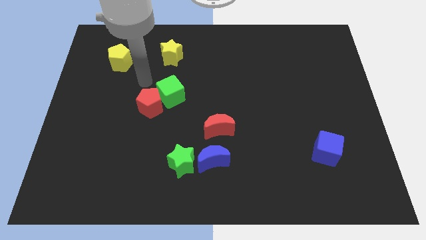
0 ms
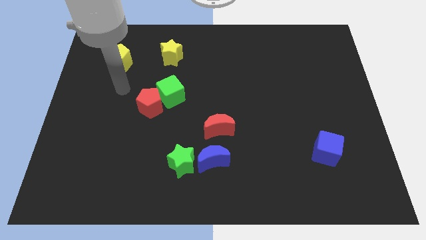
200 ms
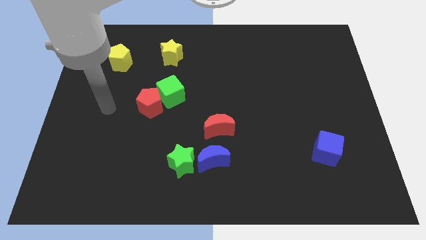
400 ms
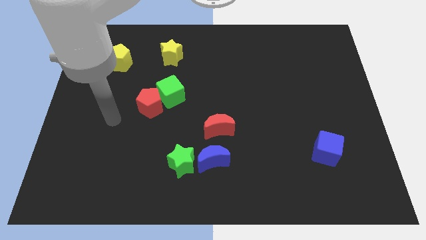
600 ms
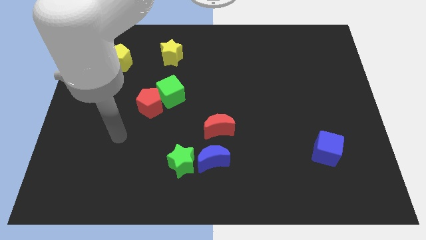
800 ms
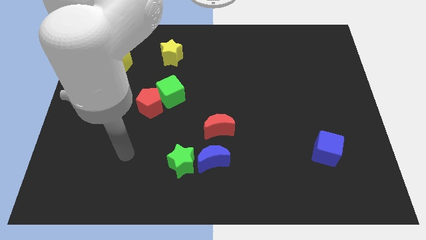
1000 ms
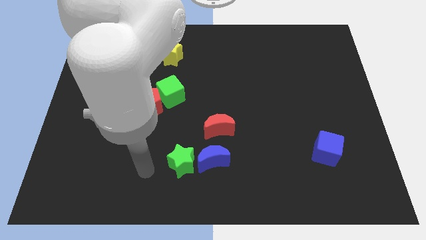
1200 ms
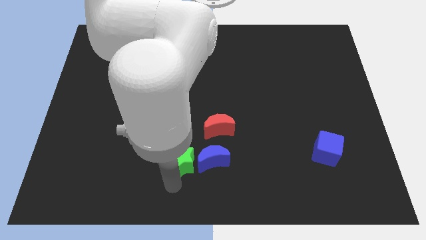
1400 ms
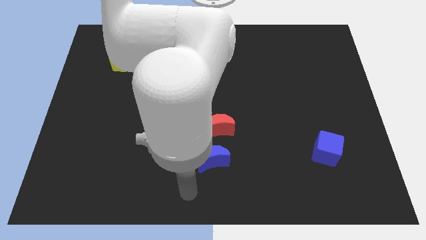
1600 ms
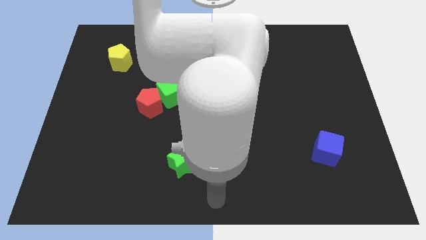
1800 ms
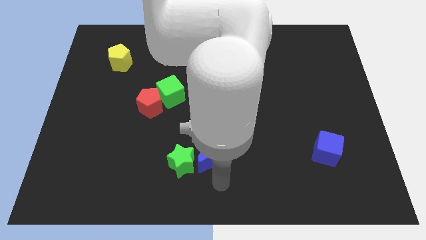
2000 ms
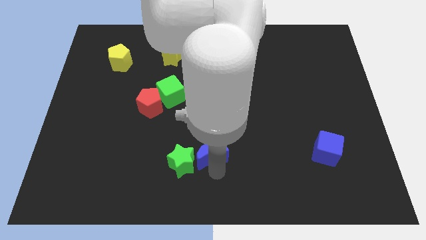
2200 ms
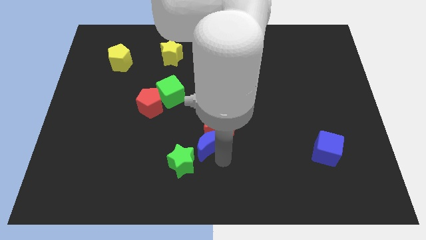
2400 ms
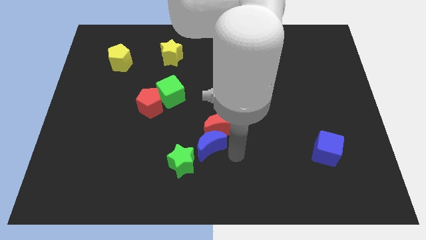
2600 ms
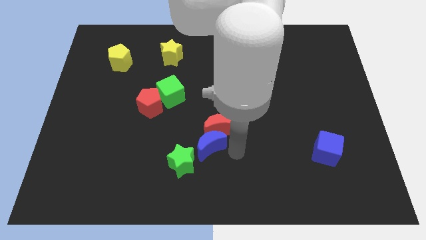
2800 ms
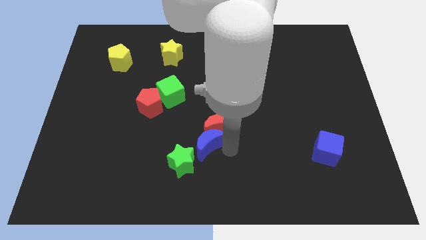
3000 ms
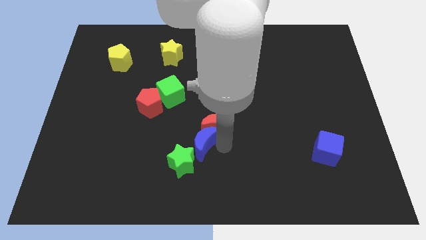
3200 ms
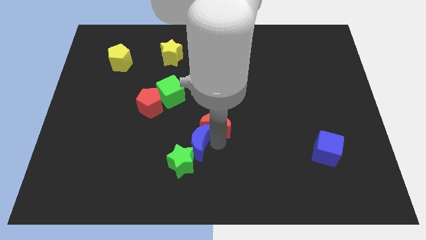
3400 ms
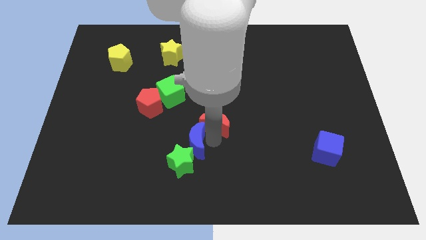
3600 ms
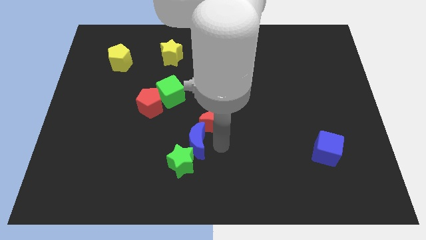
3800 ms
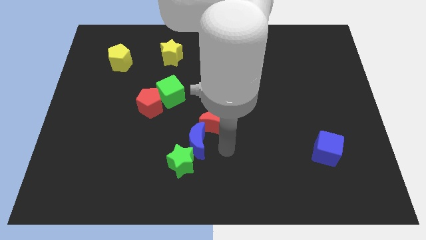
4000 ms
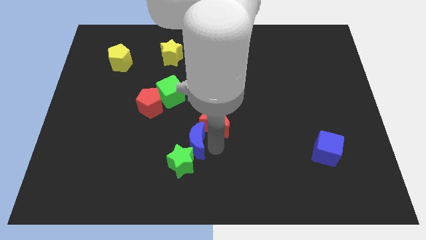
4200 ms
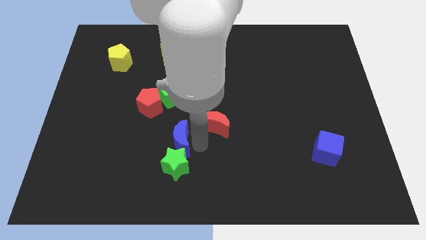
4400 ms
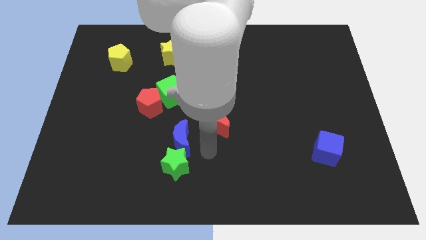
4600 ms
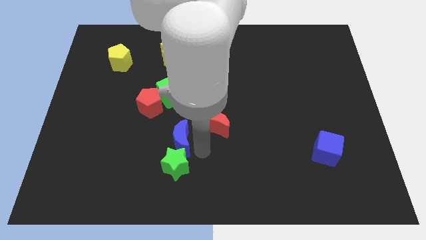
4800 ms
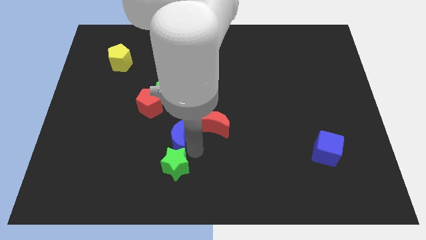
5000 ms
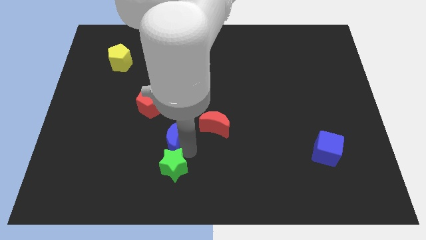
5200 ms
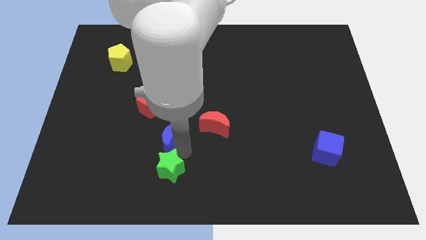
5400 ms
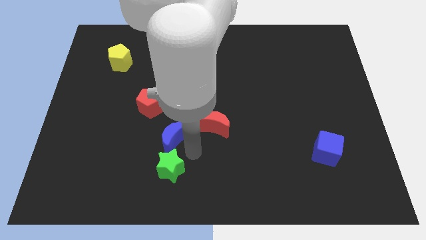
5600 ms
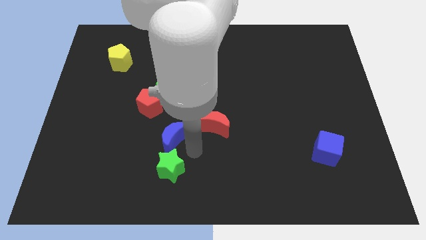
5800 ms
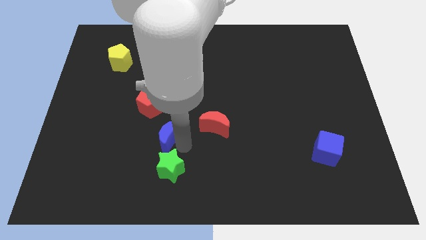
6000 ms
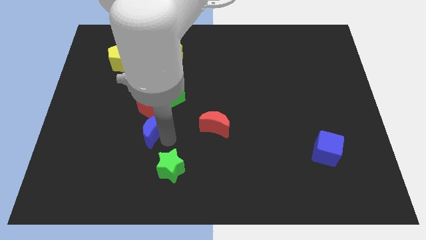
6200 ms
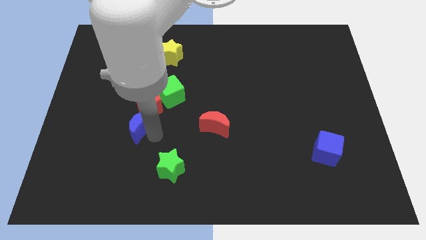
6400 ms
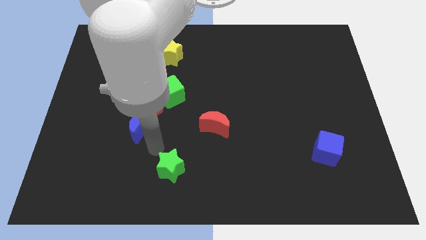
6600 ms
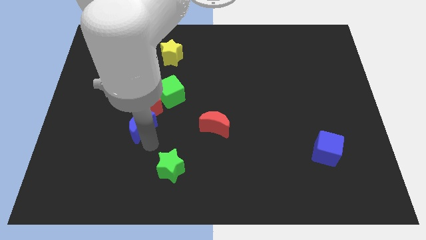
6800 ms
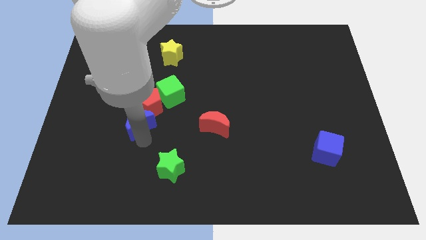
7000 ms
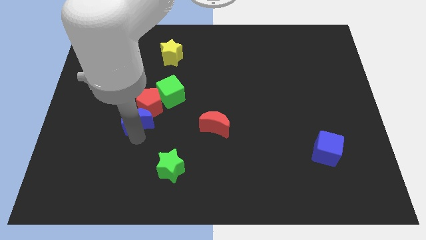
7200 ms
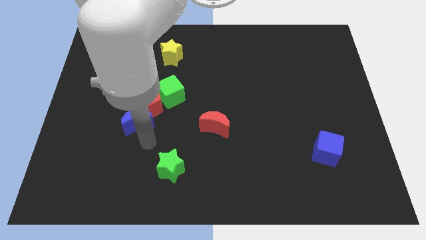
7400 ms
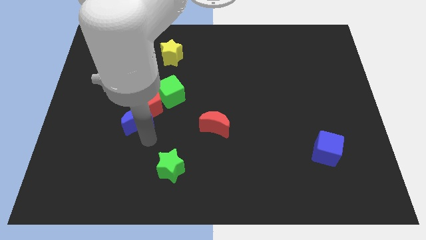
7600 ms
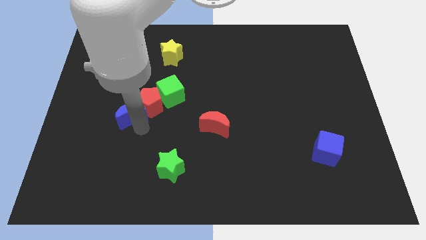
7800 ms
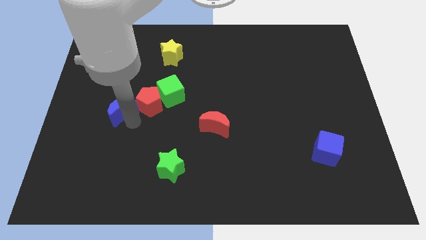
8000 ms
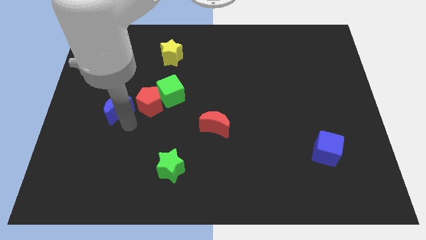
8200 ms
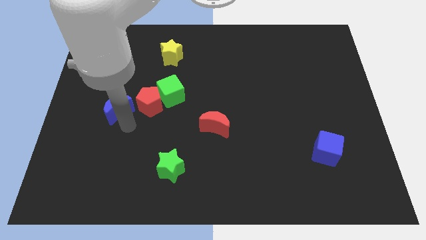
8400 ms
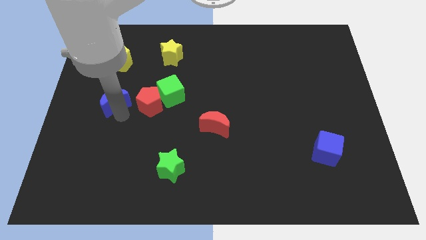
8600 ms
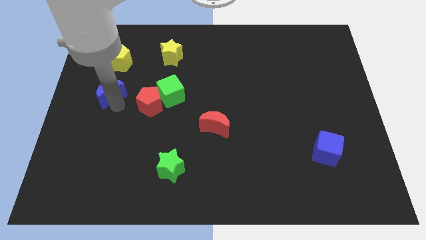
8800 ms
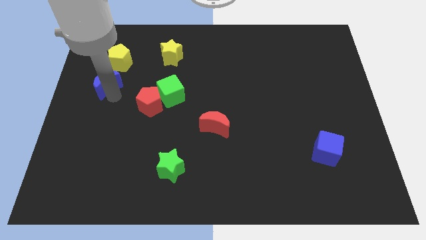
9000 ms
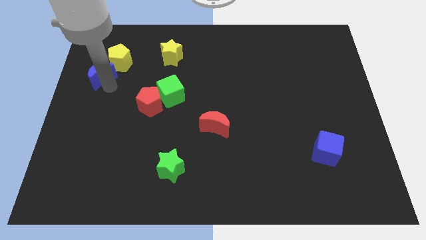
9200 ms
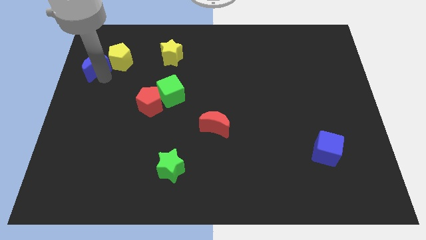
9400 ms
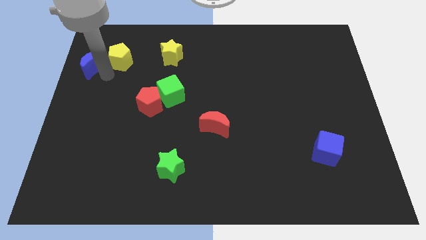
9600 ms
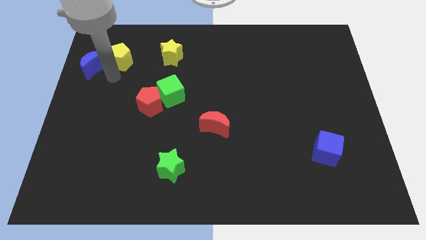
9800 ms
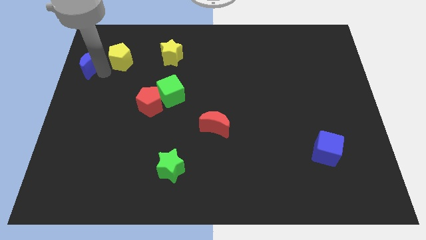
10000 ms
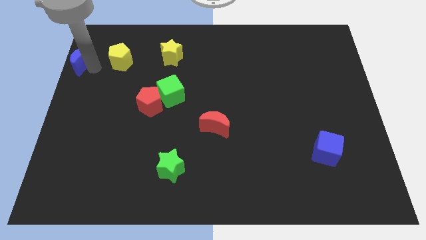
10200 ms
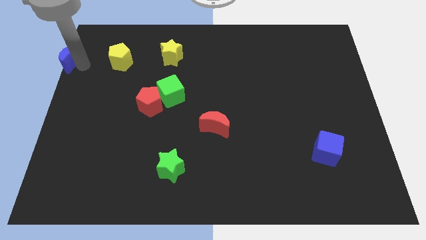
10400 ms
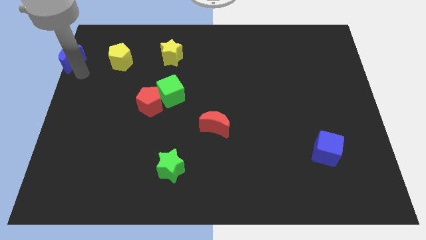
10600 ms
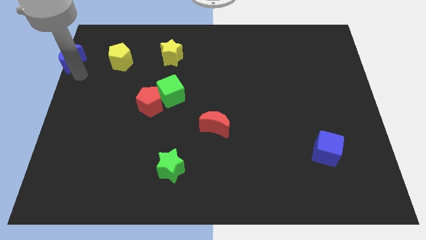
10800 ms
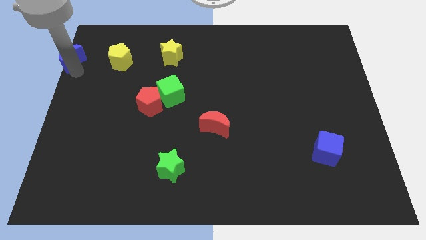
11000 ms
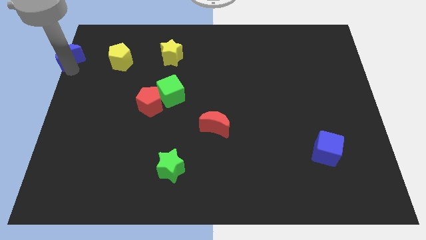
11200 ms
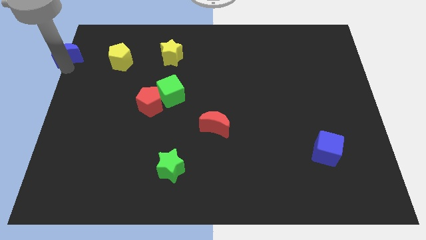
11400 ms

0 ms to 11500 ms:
slide the blue moon to the top left of the board
